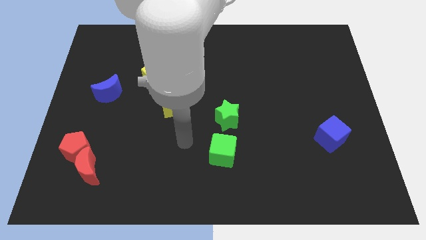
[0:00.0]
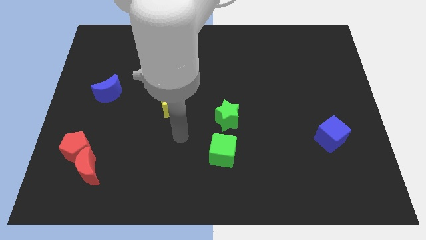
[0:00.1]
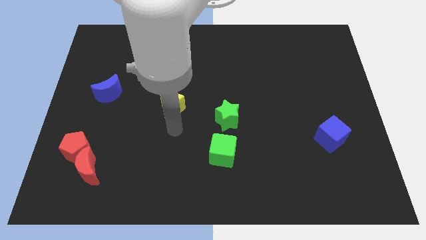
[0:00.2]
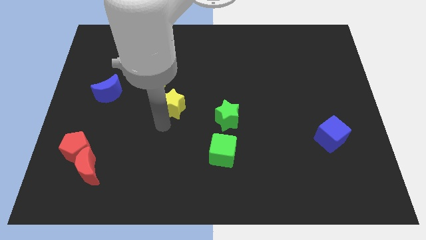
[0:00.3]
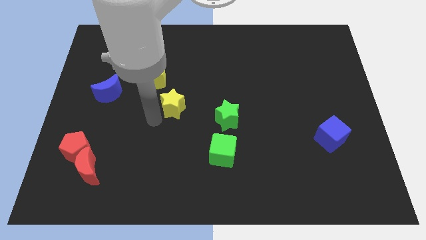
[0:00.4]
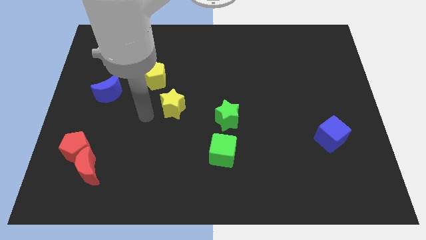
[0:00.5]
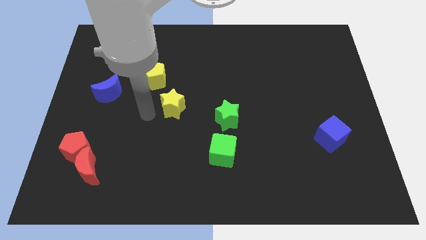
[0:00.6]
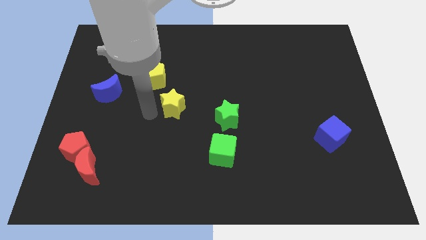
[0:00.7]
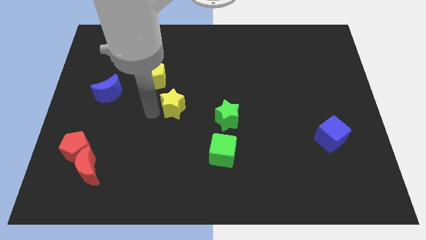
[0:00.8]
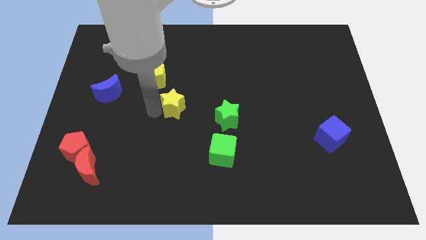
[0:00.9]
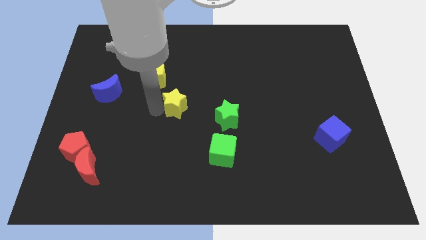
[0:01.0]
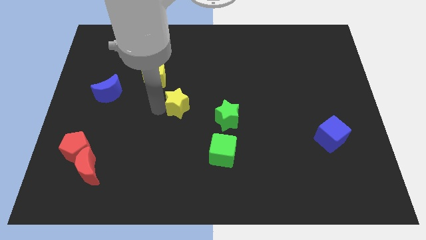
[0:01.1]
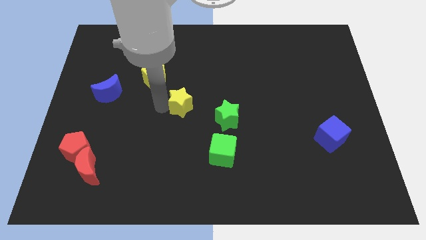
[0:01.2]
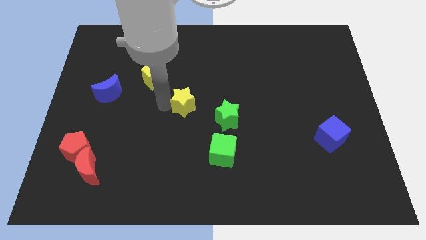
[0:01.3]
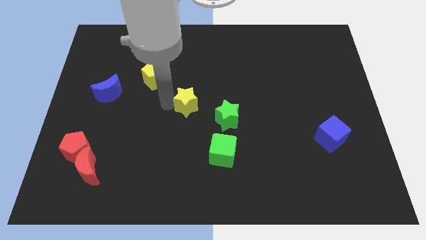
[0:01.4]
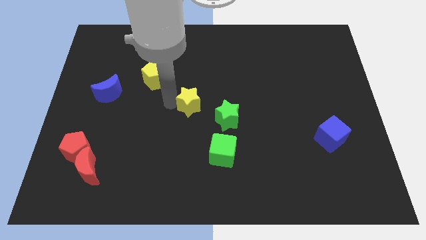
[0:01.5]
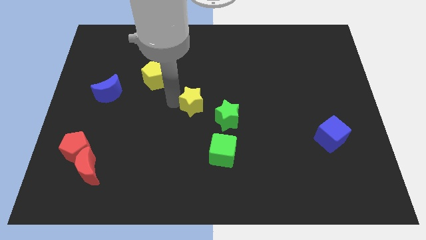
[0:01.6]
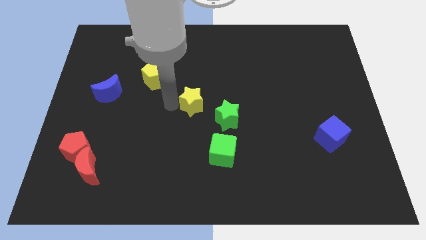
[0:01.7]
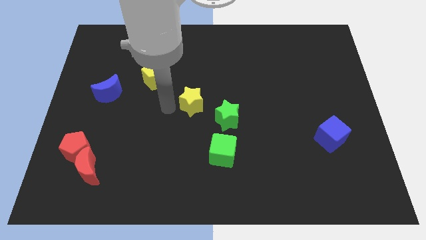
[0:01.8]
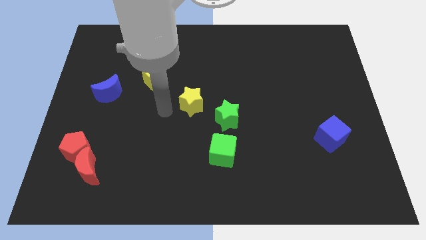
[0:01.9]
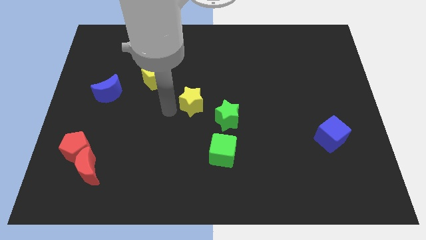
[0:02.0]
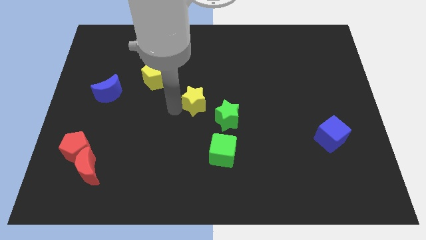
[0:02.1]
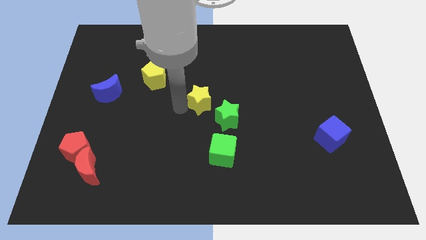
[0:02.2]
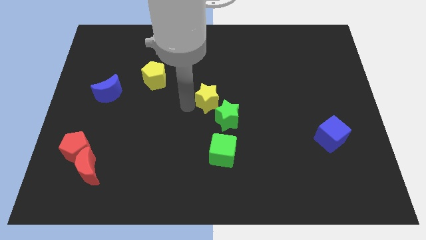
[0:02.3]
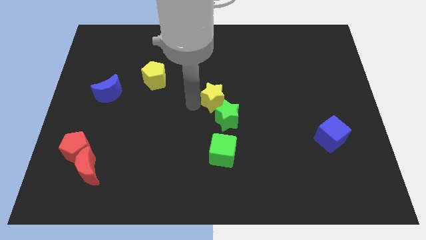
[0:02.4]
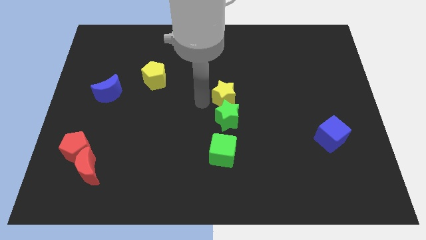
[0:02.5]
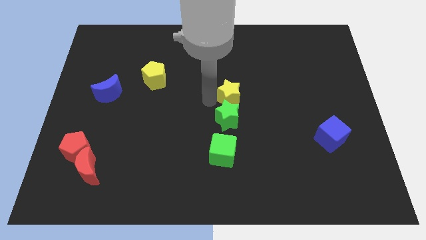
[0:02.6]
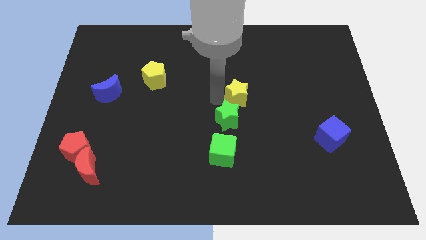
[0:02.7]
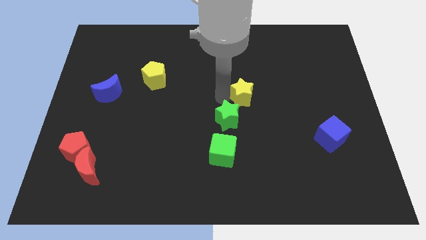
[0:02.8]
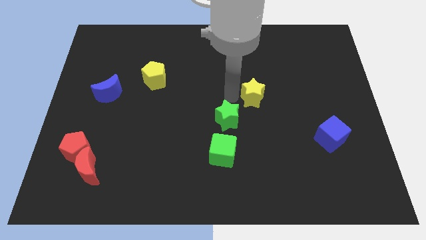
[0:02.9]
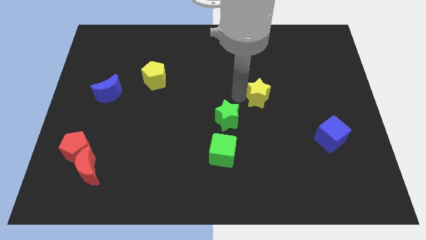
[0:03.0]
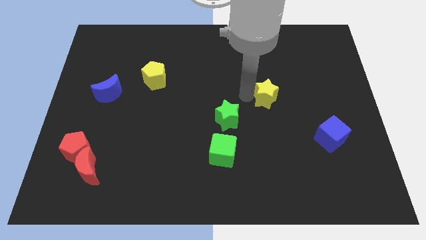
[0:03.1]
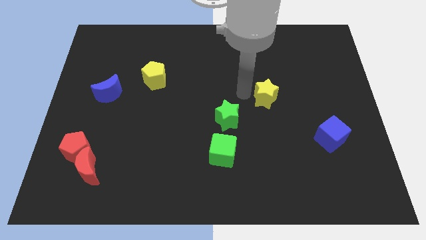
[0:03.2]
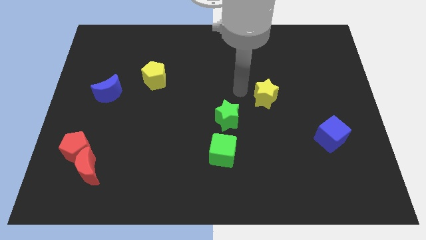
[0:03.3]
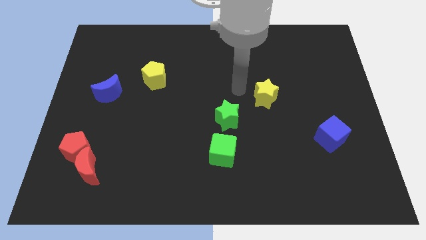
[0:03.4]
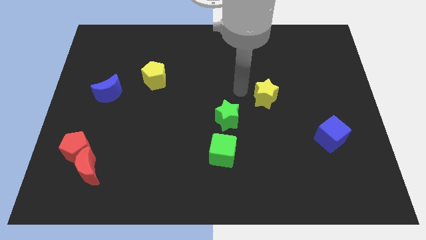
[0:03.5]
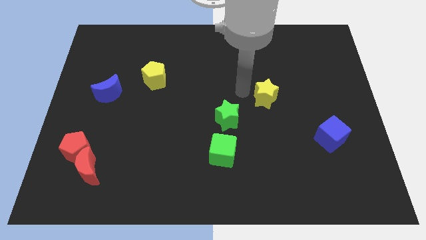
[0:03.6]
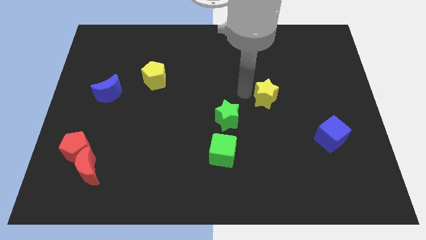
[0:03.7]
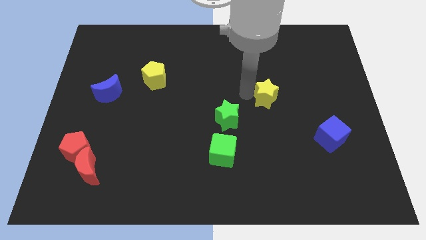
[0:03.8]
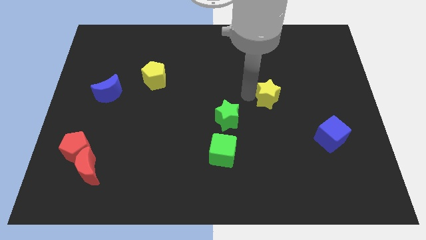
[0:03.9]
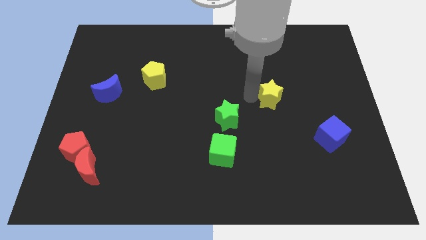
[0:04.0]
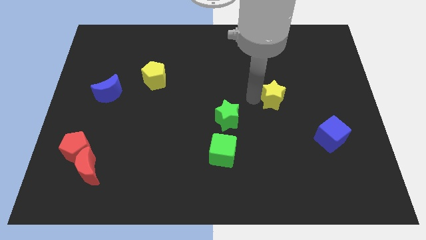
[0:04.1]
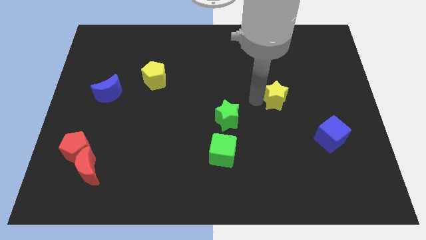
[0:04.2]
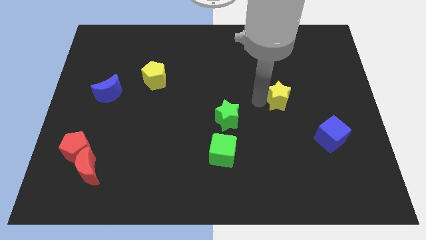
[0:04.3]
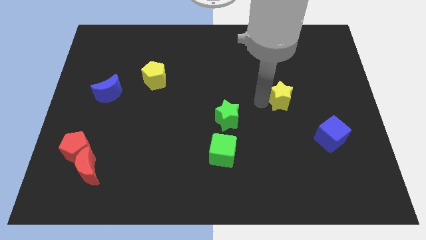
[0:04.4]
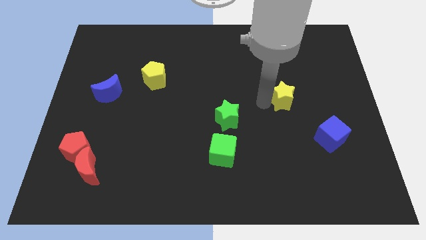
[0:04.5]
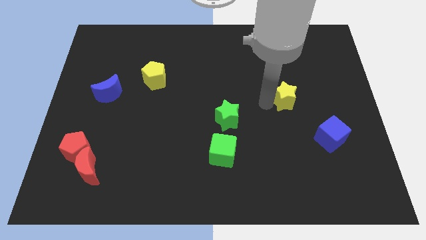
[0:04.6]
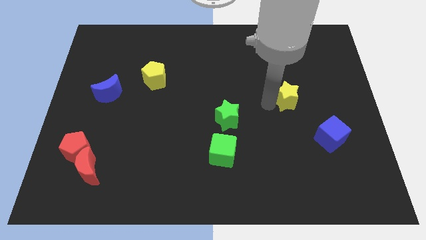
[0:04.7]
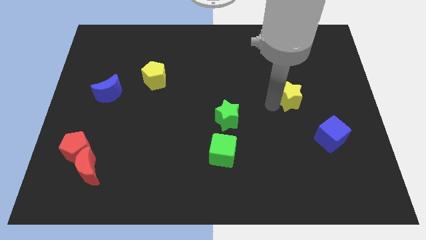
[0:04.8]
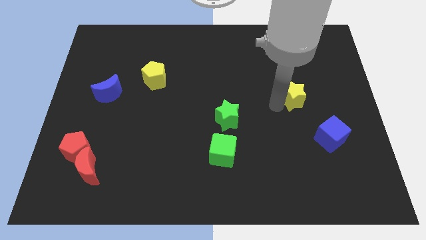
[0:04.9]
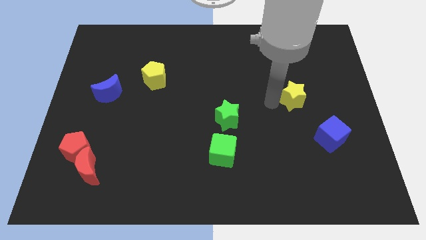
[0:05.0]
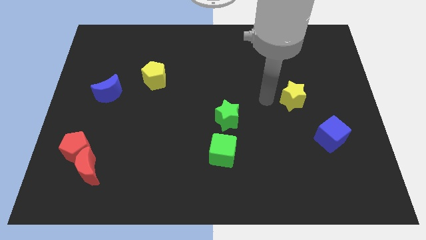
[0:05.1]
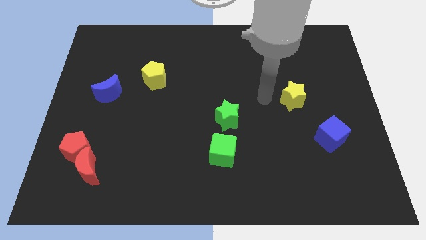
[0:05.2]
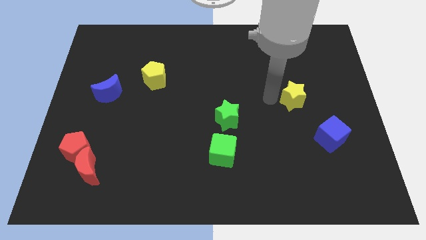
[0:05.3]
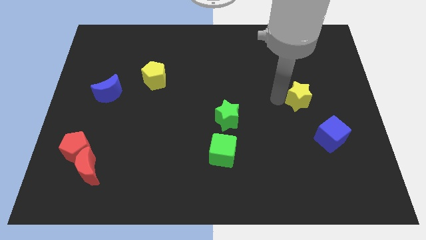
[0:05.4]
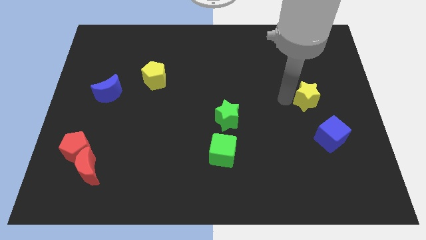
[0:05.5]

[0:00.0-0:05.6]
push the yellow star to the top of the blue cube

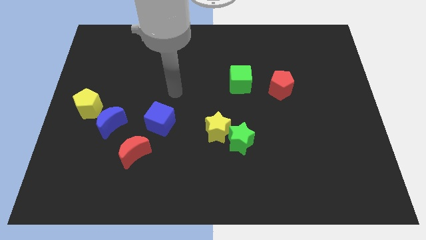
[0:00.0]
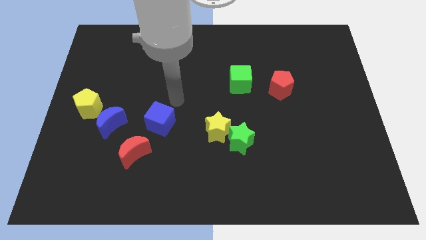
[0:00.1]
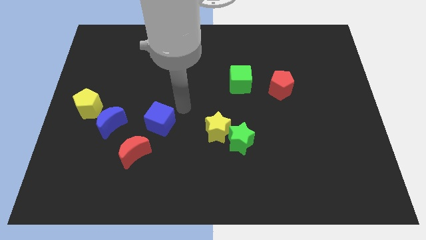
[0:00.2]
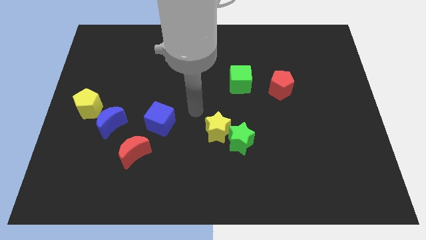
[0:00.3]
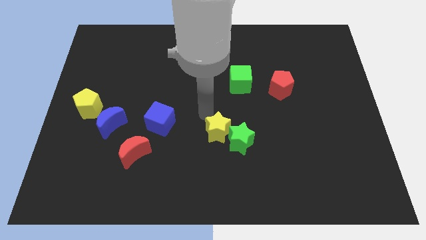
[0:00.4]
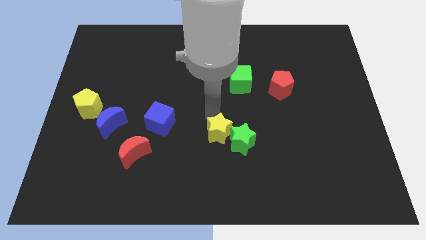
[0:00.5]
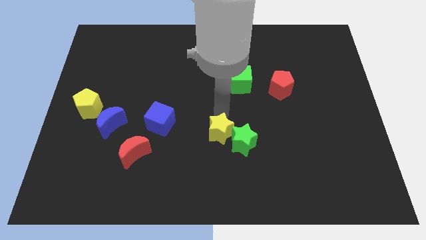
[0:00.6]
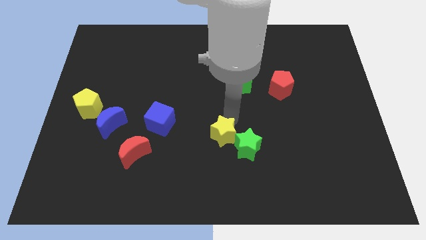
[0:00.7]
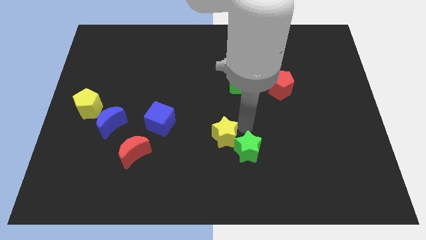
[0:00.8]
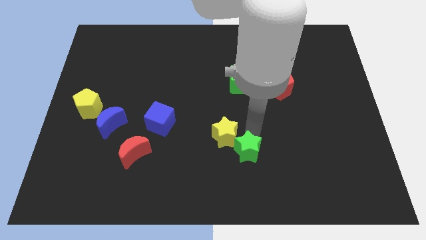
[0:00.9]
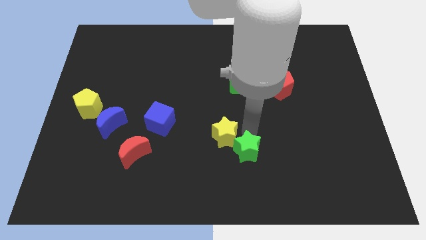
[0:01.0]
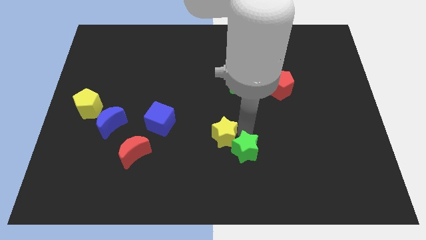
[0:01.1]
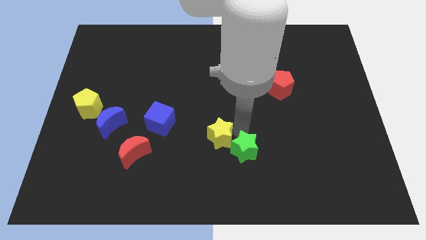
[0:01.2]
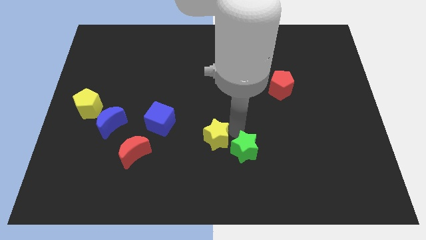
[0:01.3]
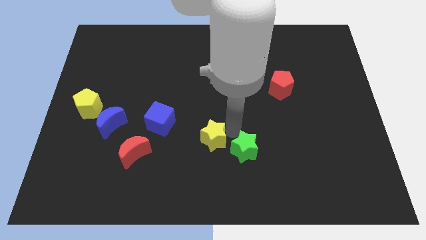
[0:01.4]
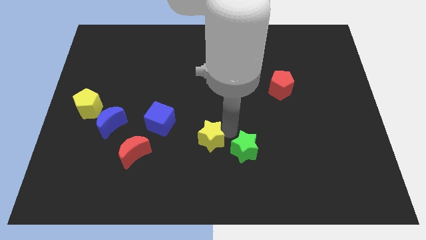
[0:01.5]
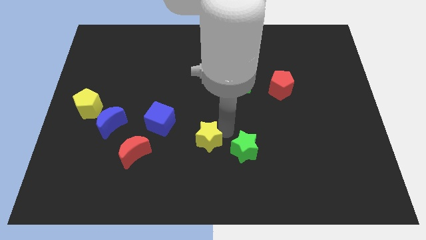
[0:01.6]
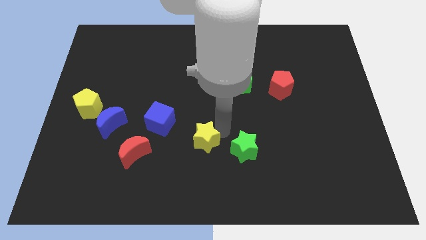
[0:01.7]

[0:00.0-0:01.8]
push the yellow star to the bottom right side of the blue cube
